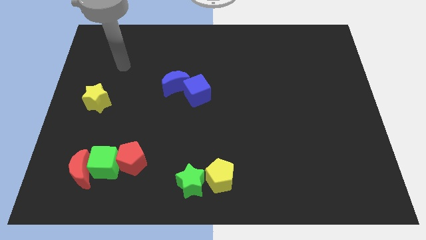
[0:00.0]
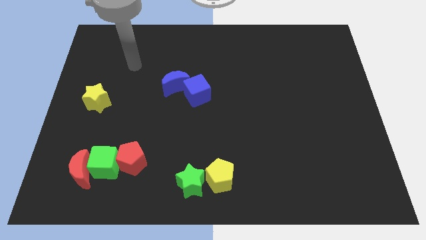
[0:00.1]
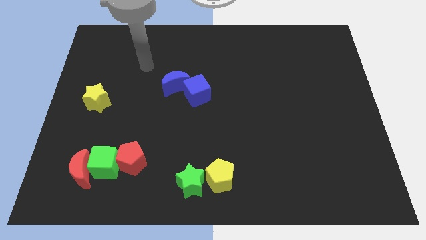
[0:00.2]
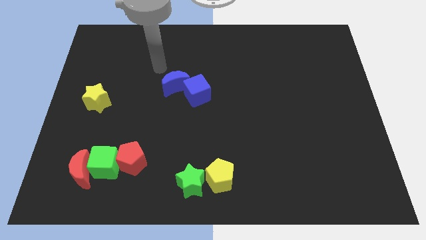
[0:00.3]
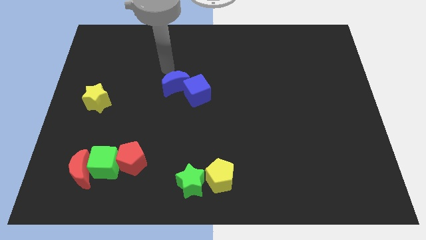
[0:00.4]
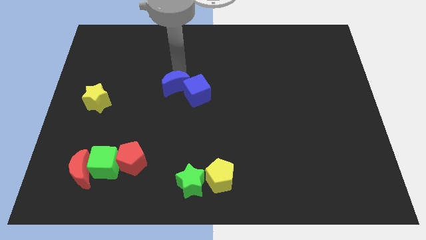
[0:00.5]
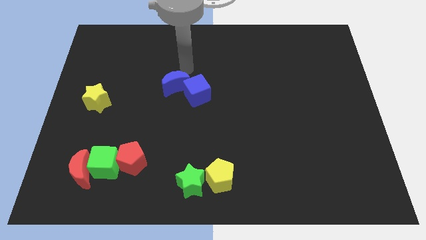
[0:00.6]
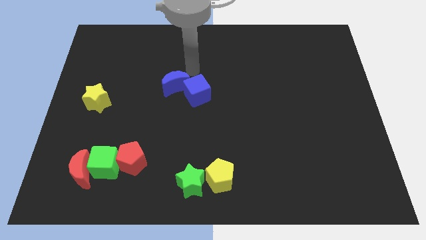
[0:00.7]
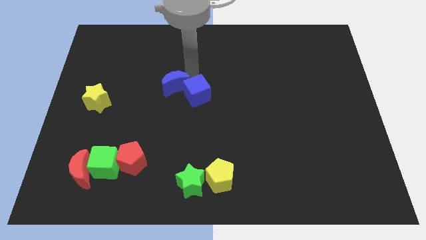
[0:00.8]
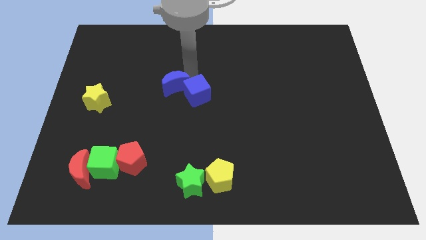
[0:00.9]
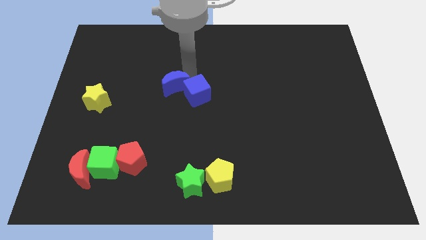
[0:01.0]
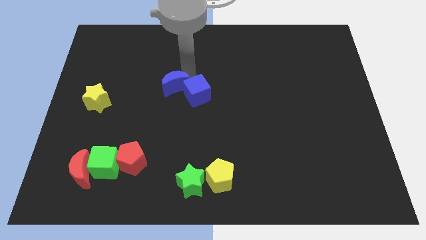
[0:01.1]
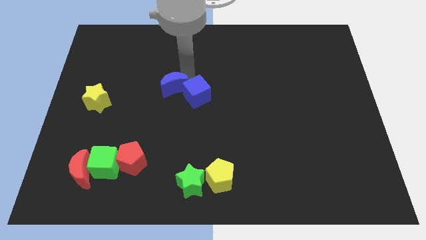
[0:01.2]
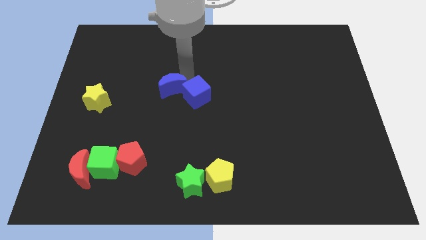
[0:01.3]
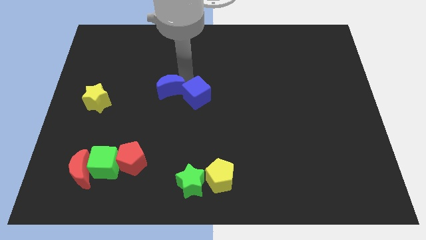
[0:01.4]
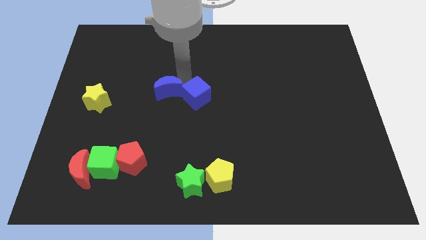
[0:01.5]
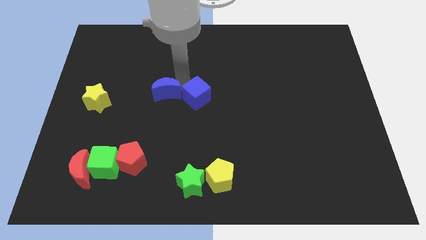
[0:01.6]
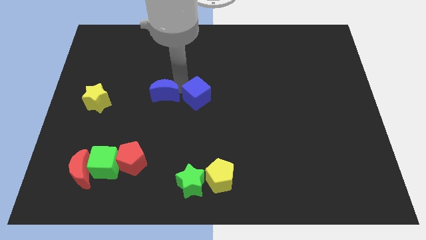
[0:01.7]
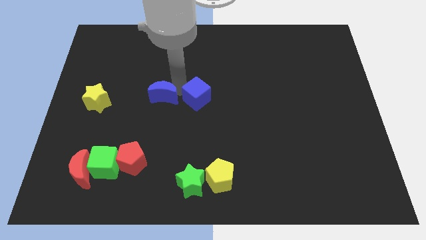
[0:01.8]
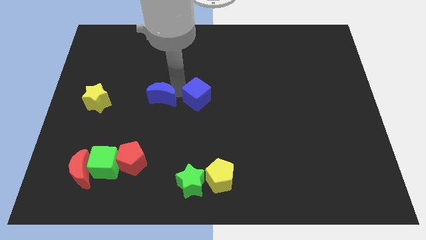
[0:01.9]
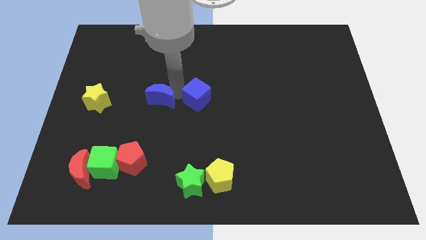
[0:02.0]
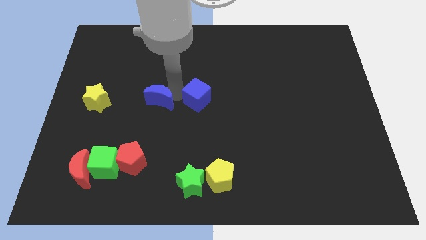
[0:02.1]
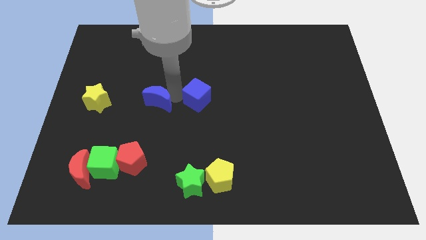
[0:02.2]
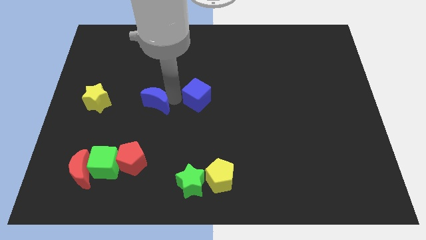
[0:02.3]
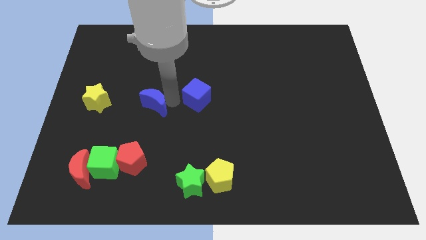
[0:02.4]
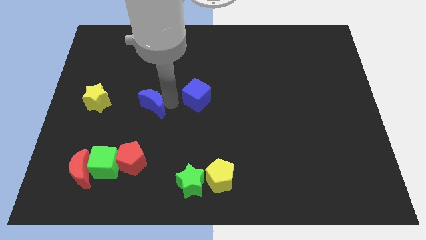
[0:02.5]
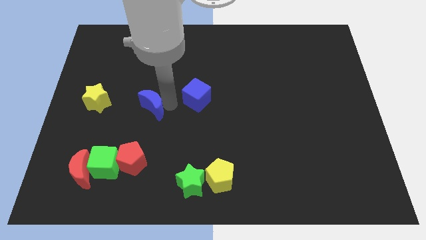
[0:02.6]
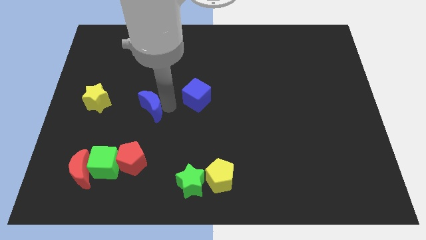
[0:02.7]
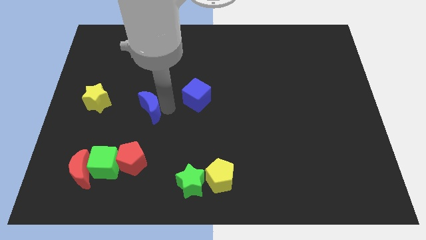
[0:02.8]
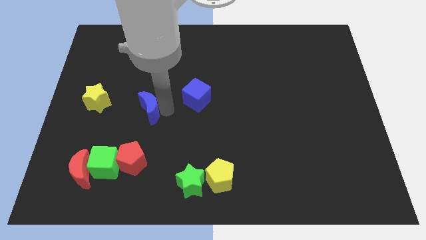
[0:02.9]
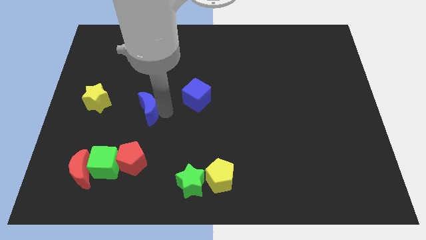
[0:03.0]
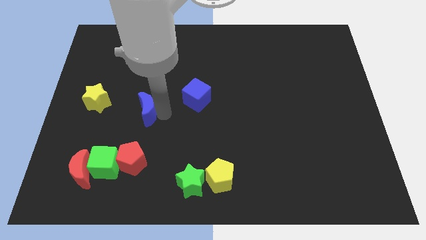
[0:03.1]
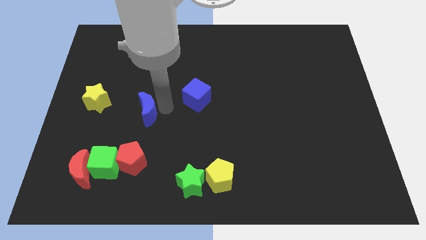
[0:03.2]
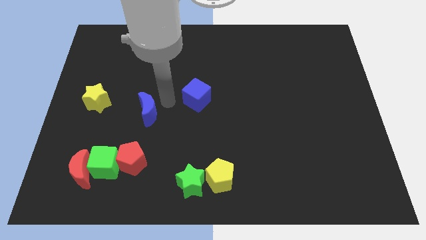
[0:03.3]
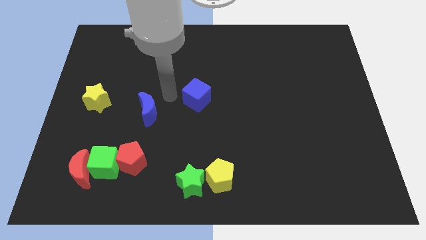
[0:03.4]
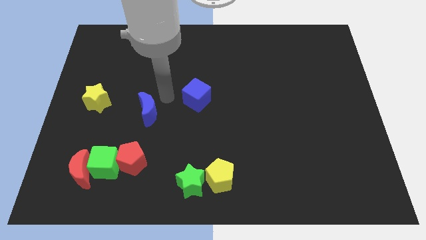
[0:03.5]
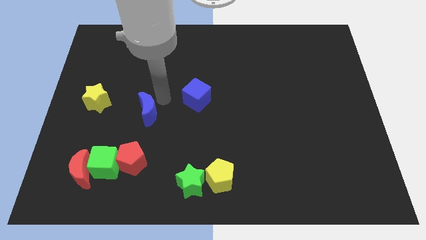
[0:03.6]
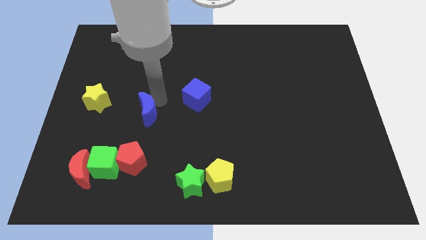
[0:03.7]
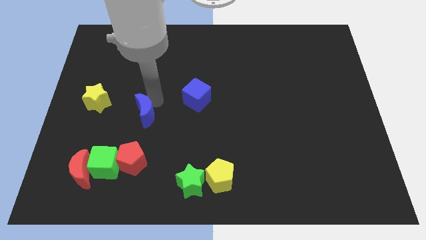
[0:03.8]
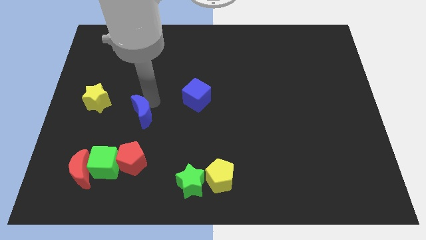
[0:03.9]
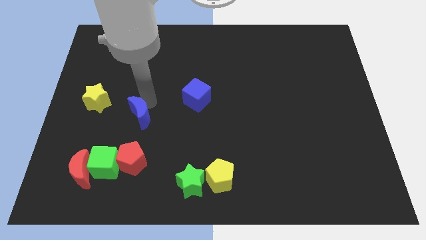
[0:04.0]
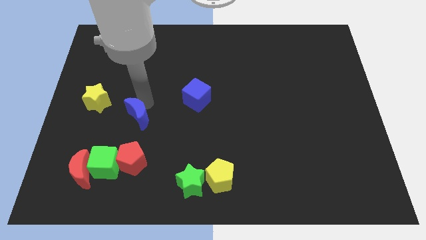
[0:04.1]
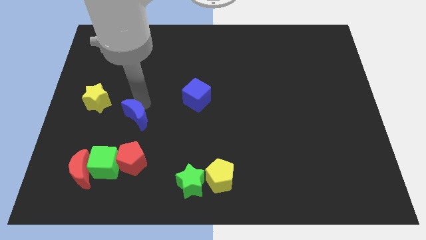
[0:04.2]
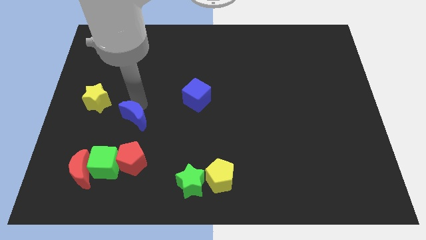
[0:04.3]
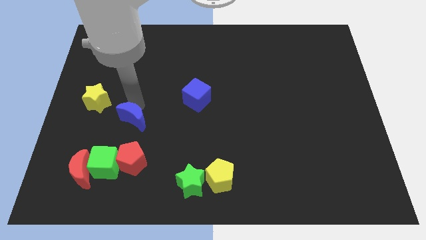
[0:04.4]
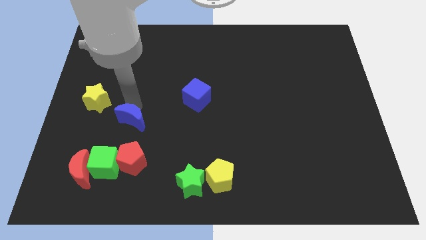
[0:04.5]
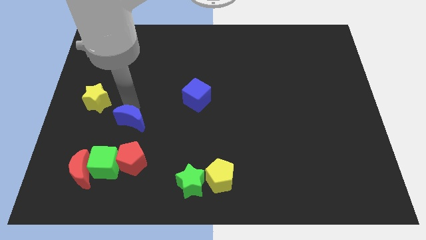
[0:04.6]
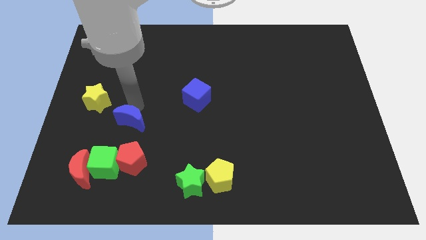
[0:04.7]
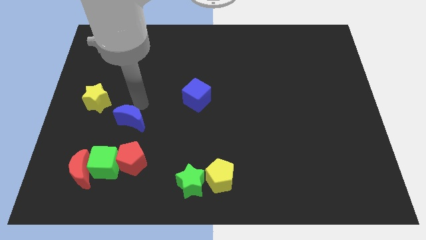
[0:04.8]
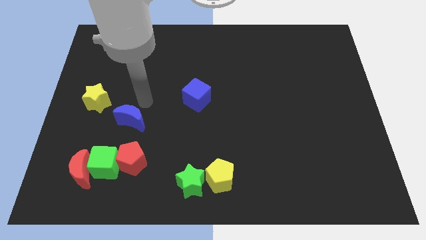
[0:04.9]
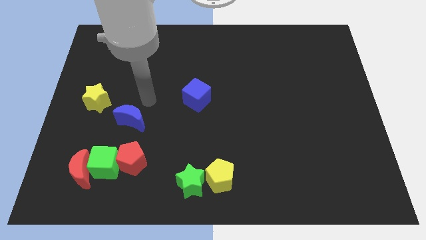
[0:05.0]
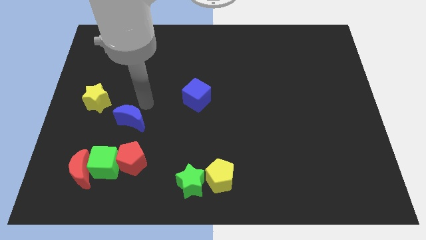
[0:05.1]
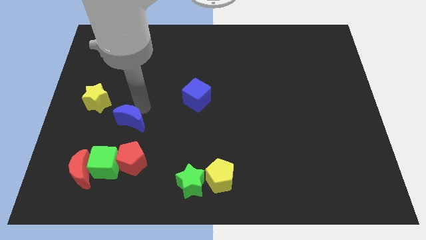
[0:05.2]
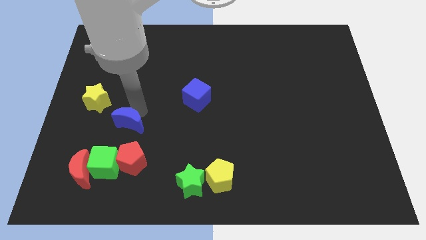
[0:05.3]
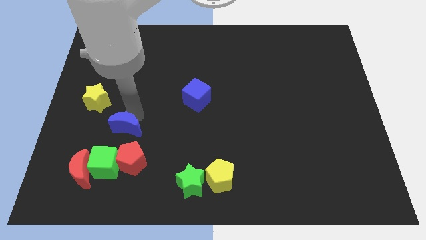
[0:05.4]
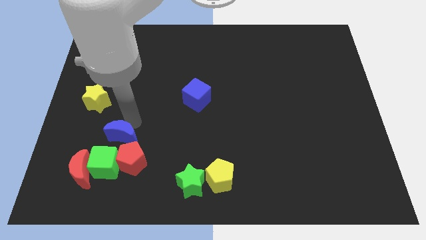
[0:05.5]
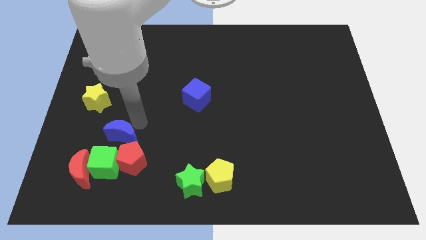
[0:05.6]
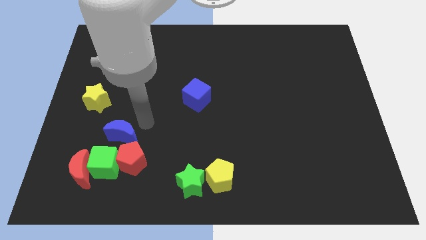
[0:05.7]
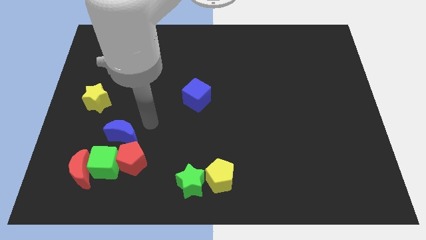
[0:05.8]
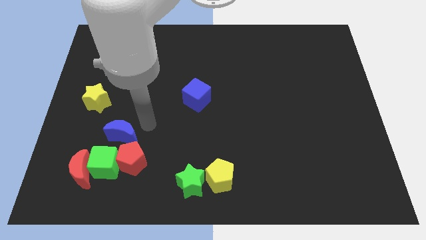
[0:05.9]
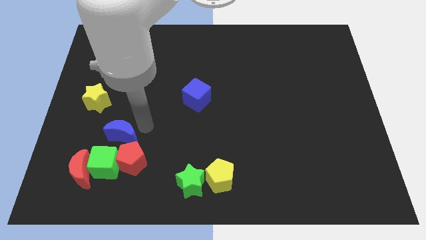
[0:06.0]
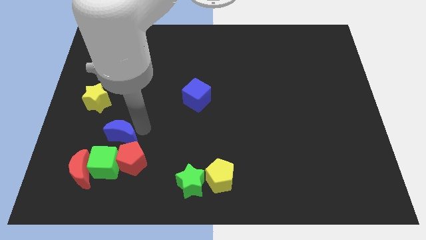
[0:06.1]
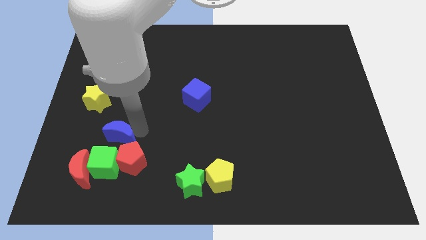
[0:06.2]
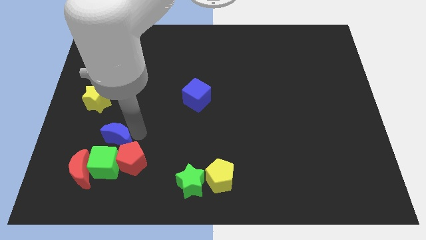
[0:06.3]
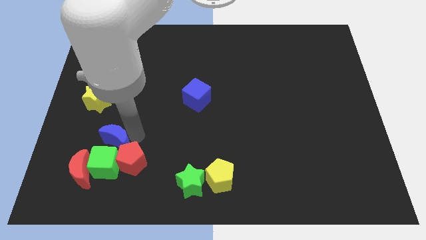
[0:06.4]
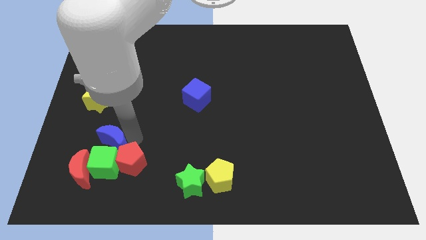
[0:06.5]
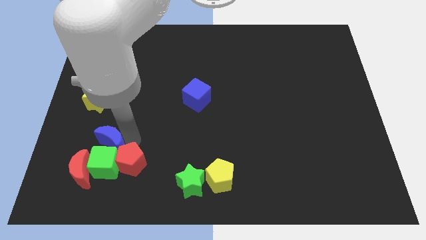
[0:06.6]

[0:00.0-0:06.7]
put the blue moon to the left of the red pentagon

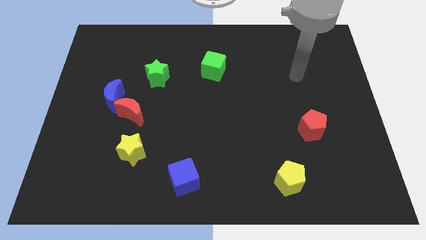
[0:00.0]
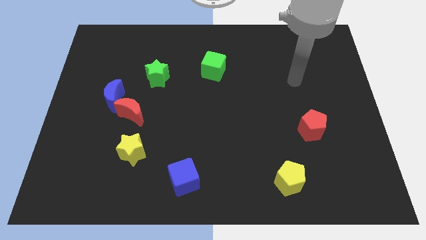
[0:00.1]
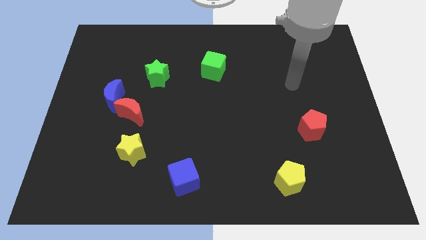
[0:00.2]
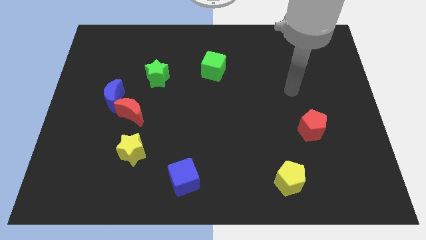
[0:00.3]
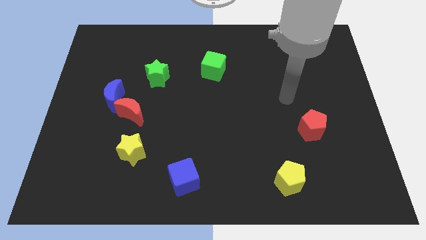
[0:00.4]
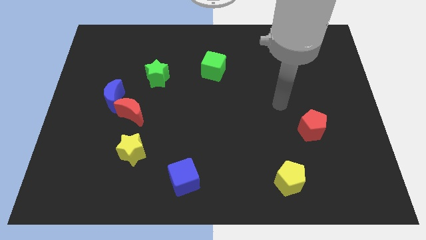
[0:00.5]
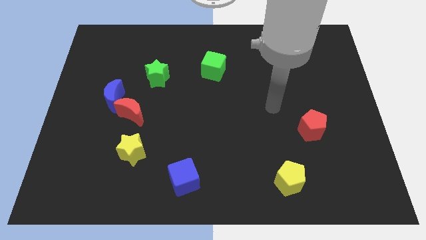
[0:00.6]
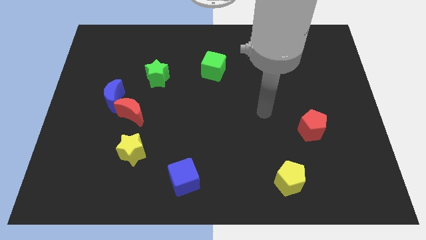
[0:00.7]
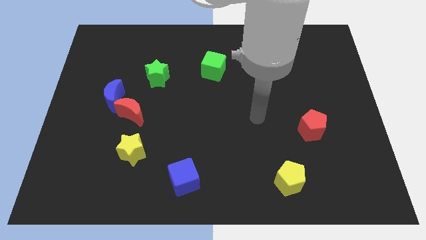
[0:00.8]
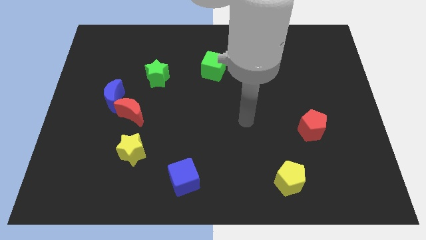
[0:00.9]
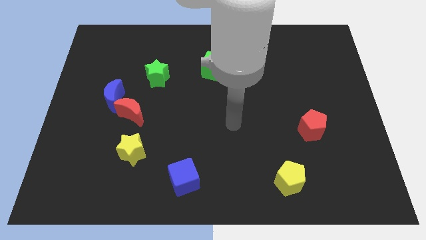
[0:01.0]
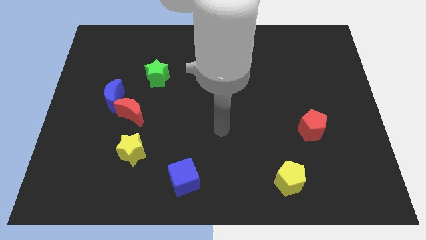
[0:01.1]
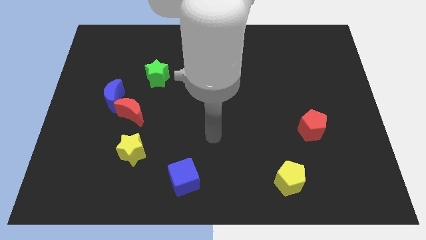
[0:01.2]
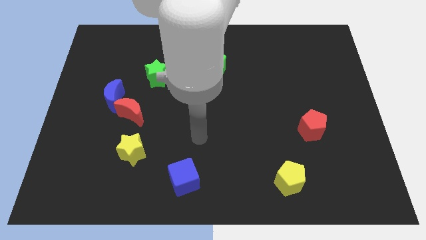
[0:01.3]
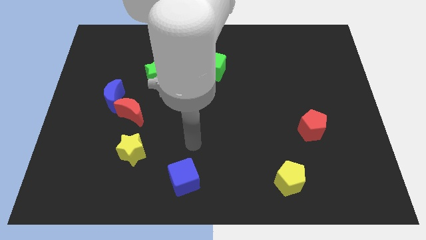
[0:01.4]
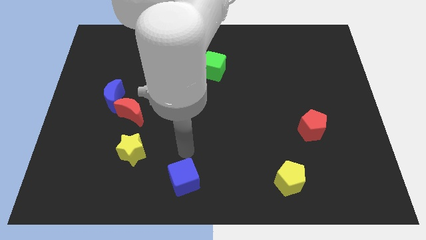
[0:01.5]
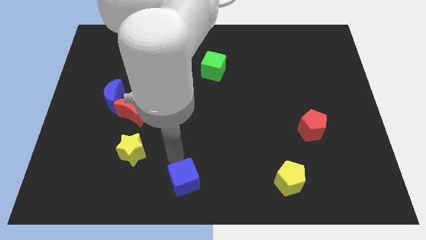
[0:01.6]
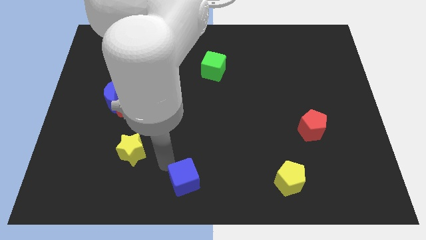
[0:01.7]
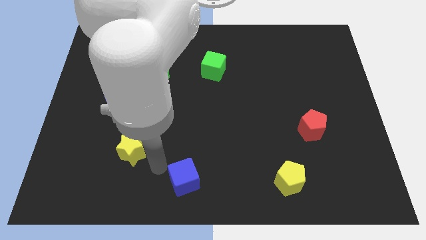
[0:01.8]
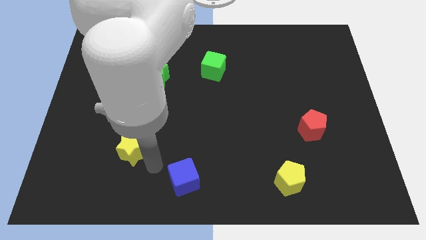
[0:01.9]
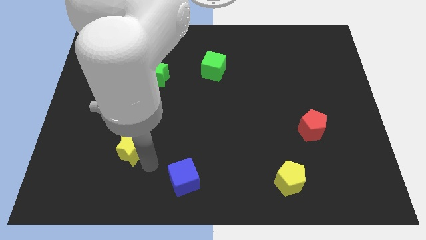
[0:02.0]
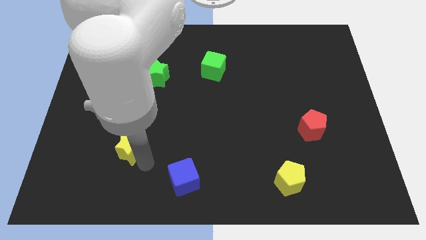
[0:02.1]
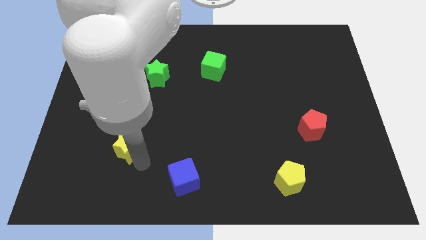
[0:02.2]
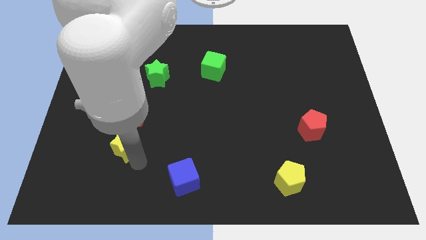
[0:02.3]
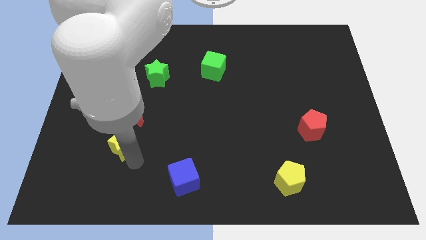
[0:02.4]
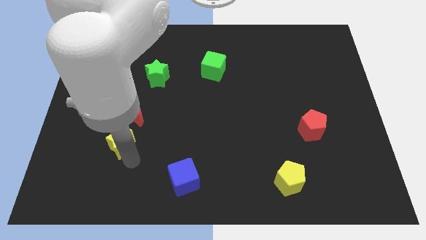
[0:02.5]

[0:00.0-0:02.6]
push the yellow star below the blue moon
